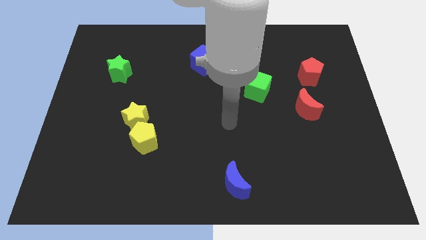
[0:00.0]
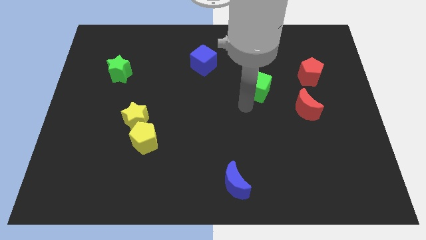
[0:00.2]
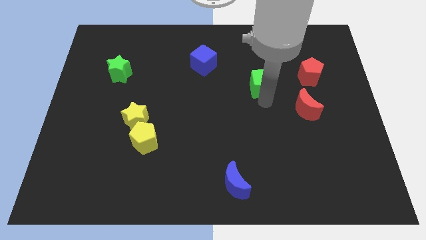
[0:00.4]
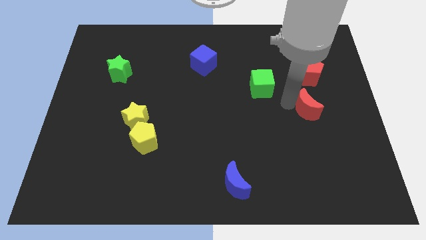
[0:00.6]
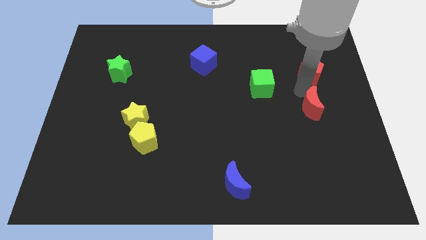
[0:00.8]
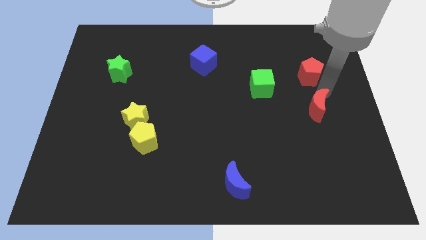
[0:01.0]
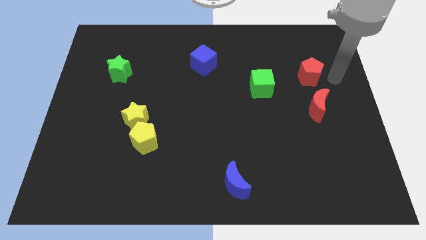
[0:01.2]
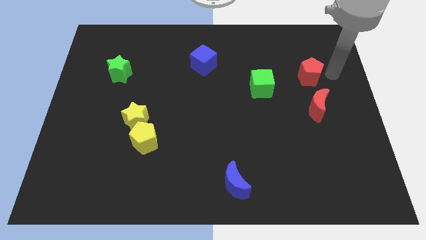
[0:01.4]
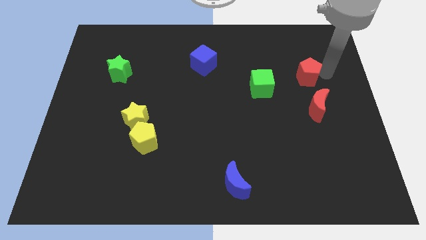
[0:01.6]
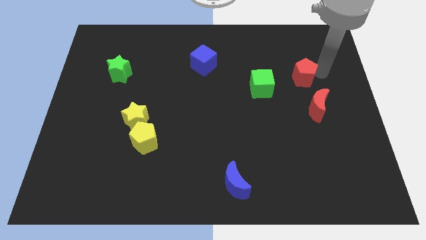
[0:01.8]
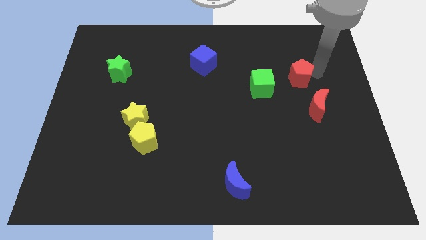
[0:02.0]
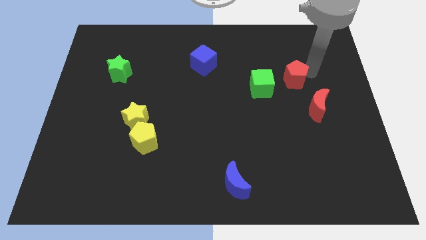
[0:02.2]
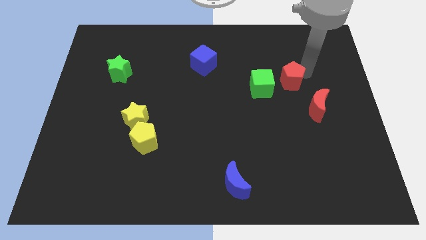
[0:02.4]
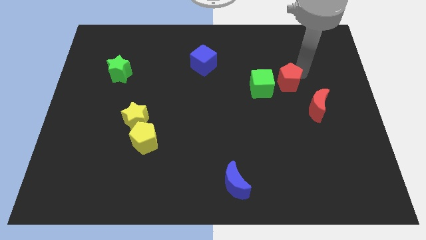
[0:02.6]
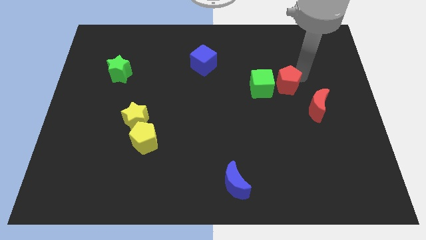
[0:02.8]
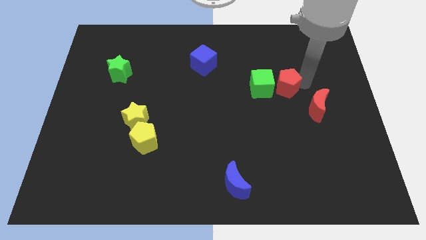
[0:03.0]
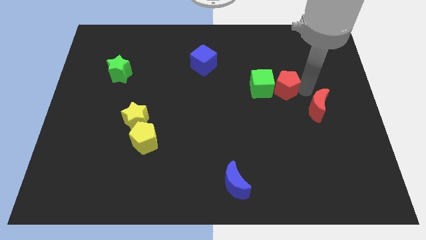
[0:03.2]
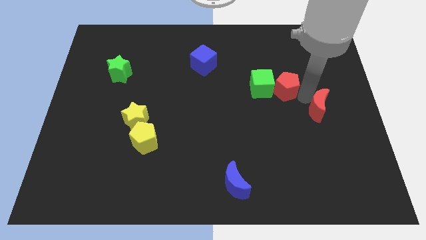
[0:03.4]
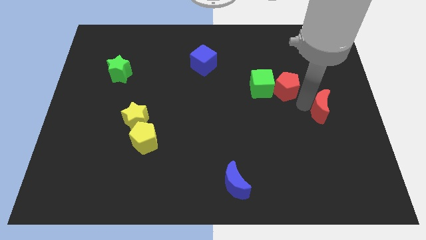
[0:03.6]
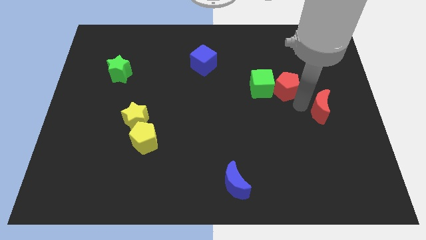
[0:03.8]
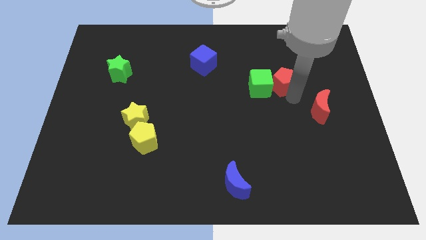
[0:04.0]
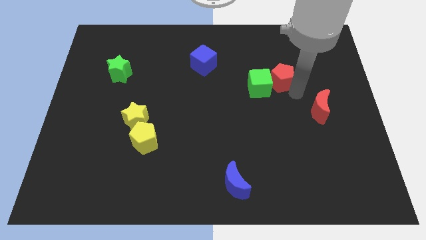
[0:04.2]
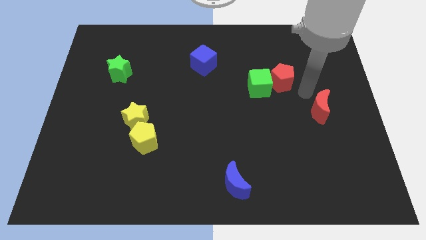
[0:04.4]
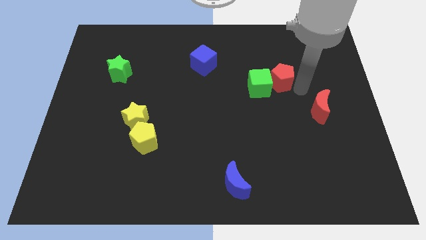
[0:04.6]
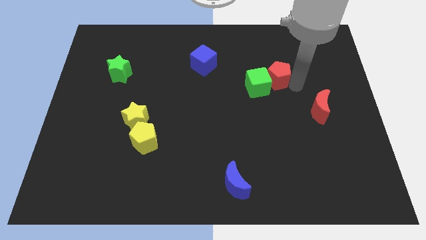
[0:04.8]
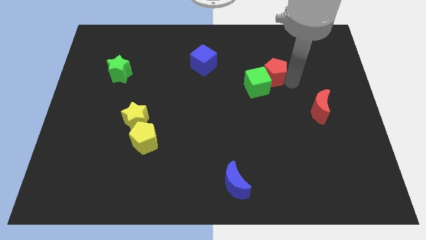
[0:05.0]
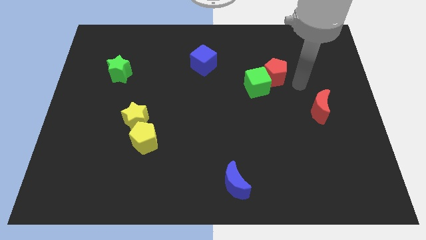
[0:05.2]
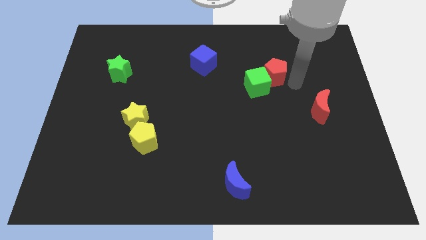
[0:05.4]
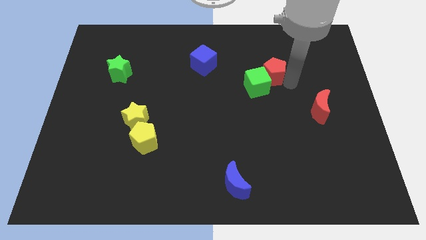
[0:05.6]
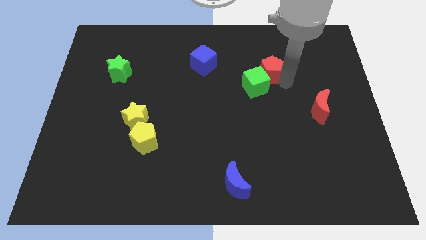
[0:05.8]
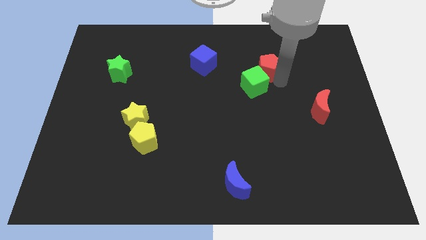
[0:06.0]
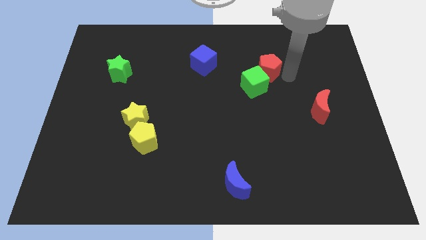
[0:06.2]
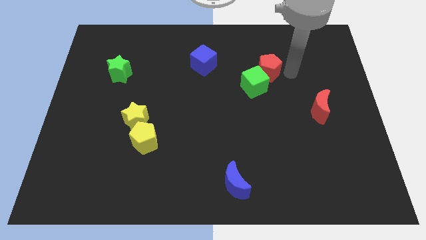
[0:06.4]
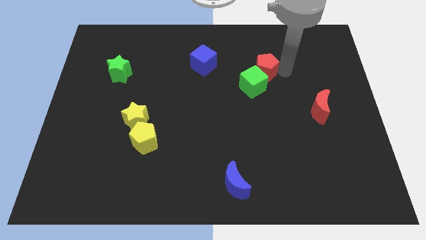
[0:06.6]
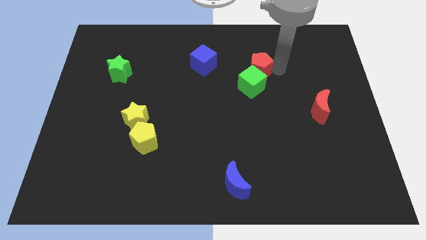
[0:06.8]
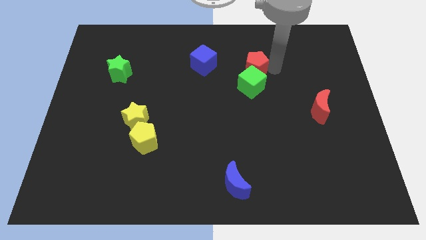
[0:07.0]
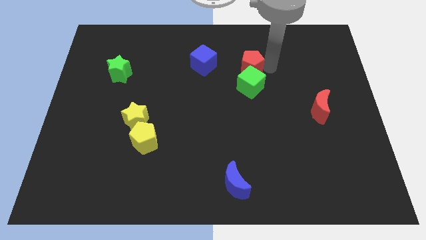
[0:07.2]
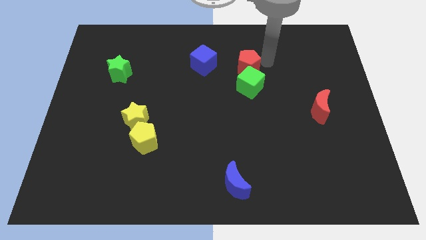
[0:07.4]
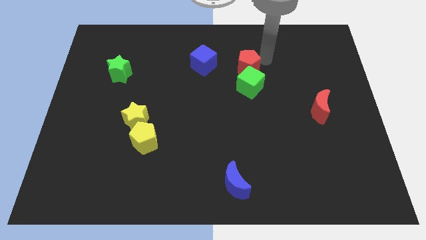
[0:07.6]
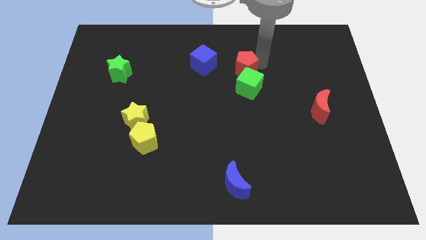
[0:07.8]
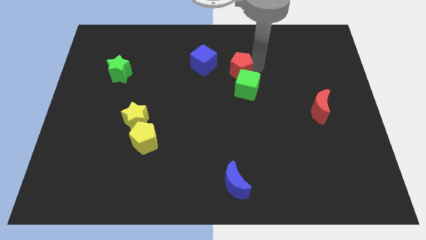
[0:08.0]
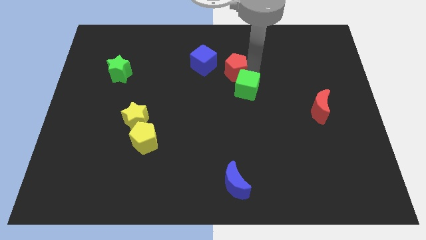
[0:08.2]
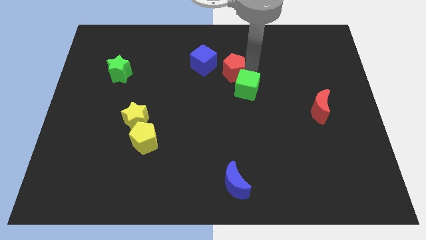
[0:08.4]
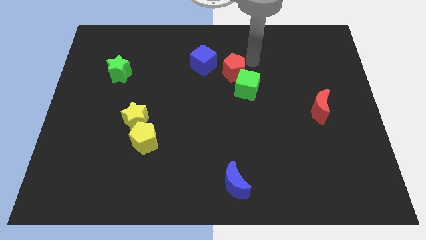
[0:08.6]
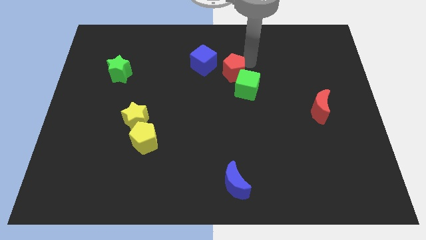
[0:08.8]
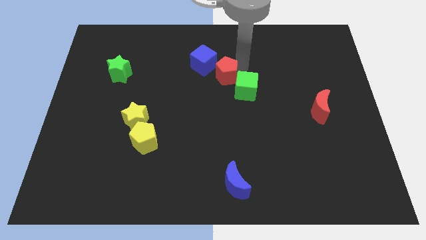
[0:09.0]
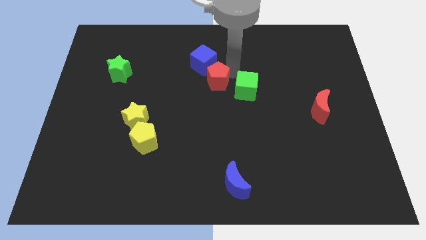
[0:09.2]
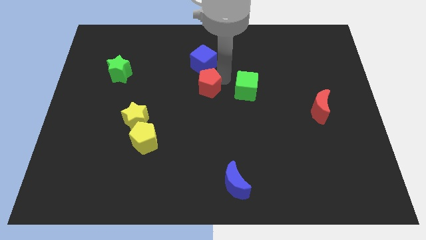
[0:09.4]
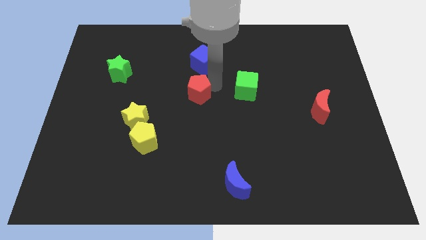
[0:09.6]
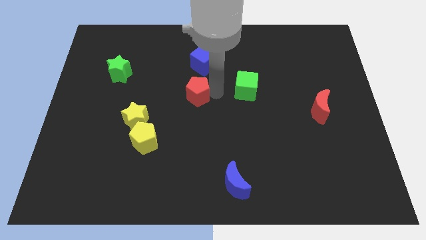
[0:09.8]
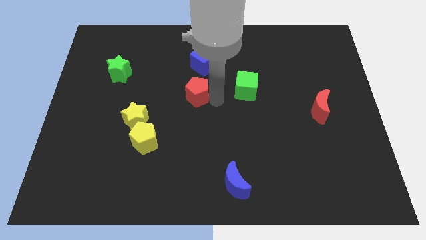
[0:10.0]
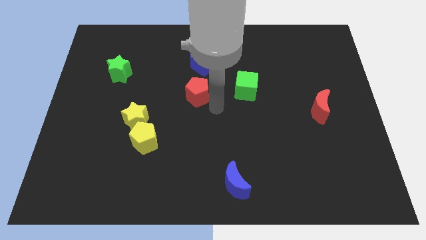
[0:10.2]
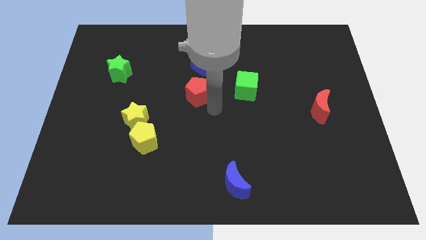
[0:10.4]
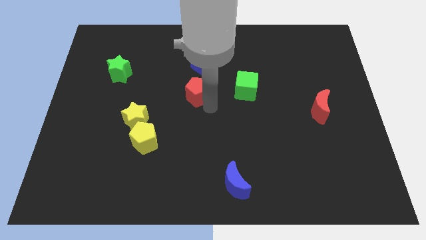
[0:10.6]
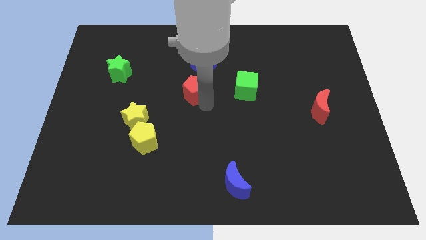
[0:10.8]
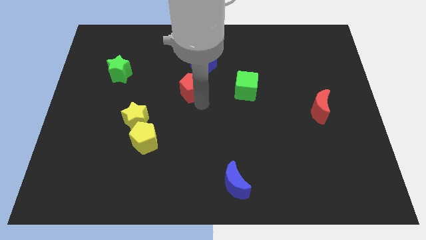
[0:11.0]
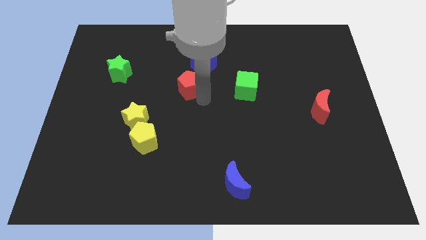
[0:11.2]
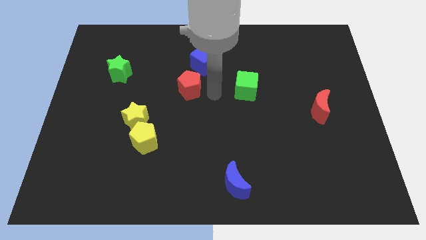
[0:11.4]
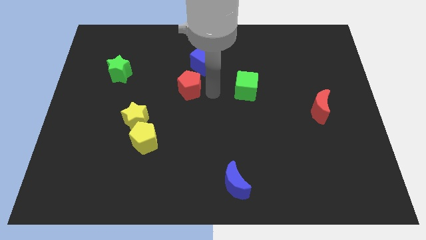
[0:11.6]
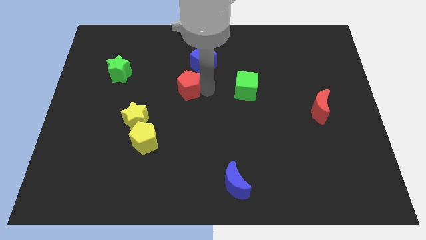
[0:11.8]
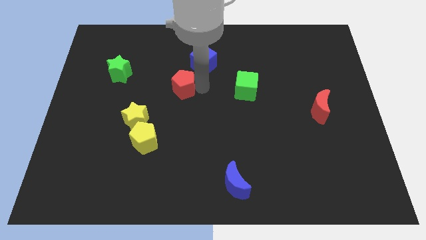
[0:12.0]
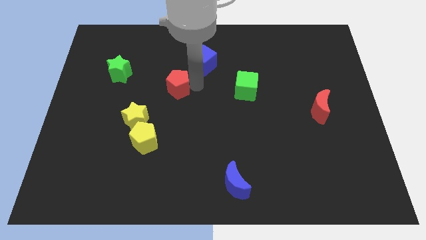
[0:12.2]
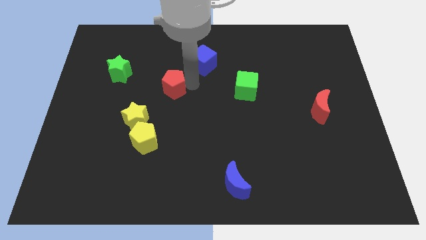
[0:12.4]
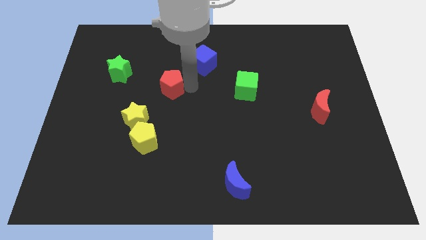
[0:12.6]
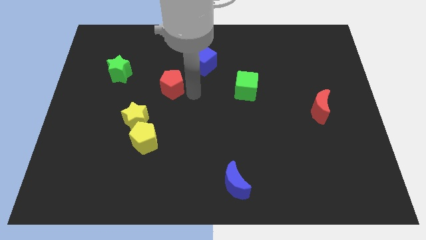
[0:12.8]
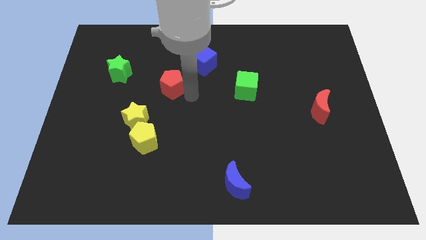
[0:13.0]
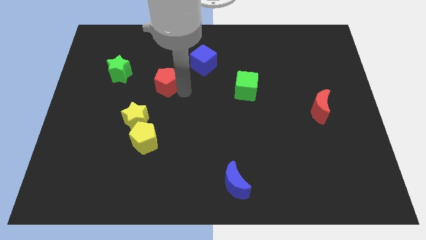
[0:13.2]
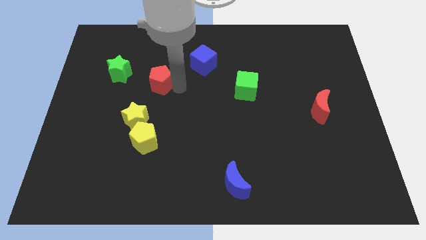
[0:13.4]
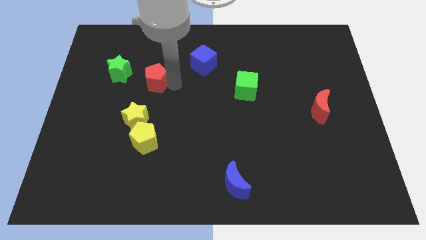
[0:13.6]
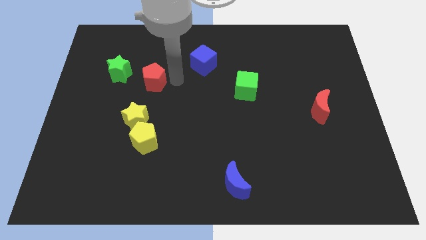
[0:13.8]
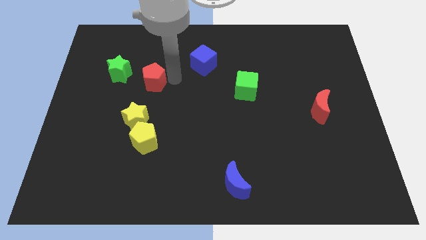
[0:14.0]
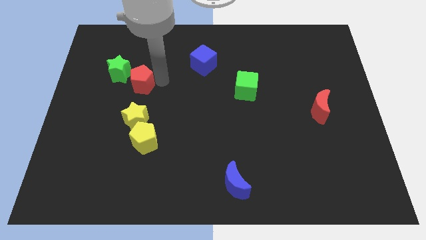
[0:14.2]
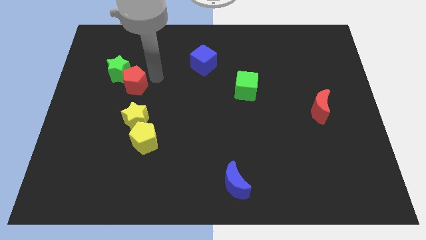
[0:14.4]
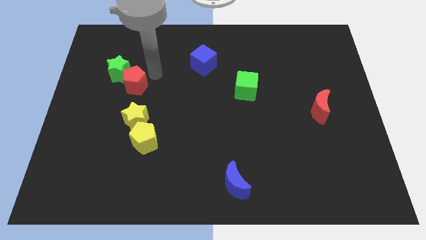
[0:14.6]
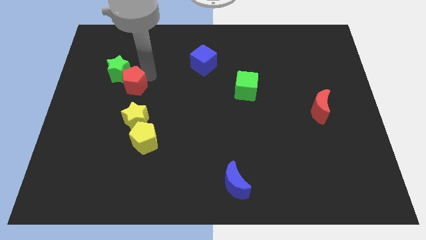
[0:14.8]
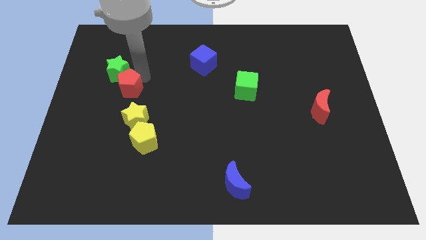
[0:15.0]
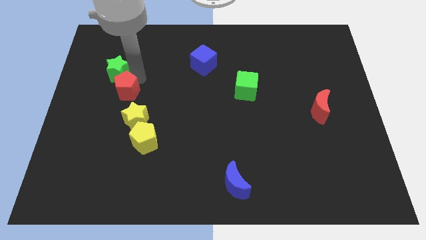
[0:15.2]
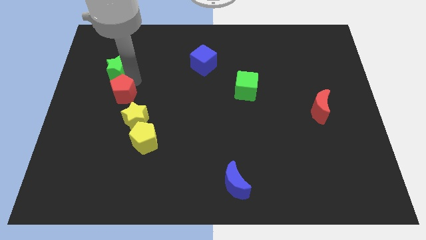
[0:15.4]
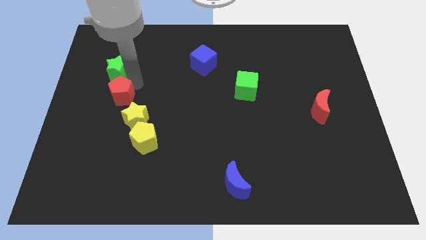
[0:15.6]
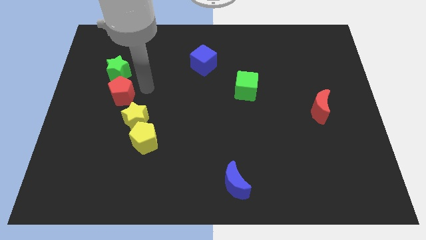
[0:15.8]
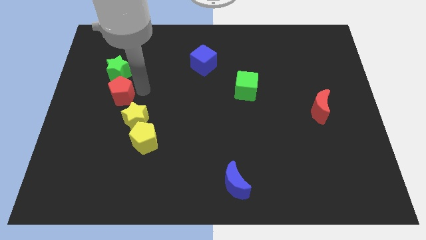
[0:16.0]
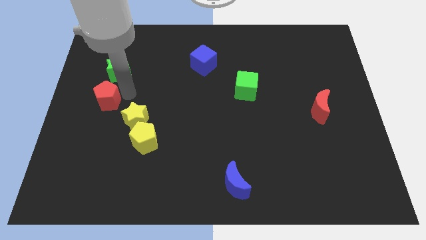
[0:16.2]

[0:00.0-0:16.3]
slide the red pentagon to the center left
